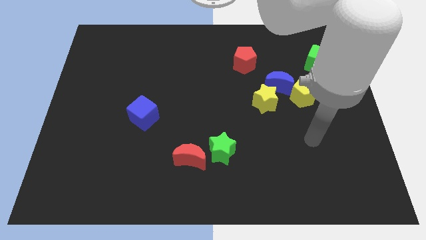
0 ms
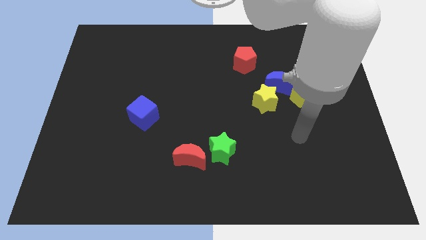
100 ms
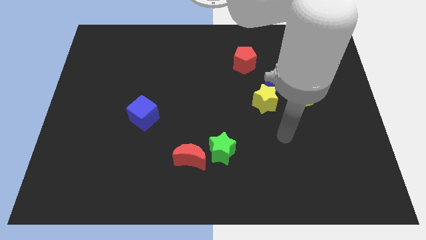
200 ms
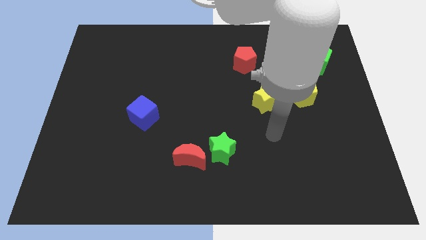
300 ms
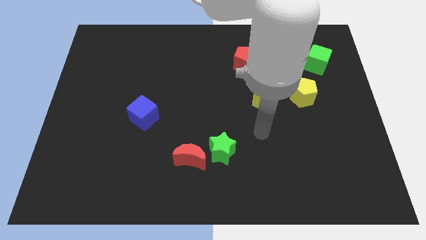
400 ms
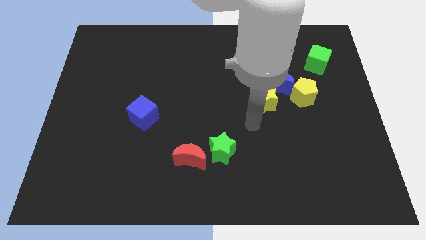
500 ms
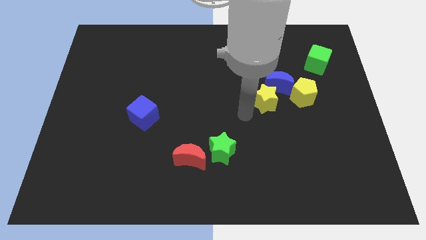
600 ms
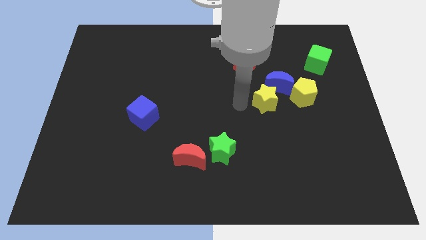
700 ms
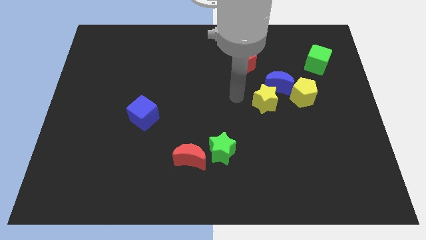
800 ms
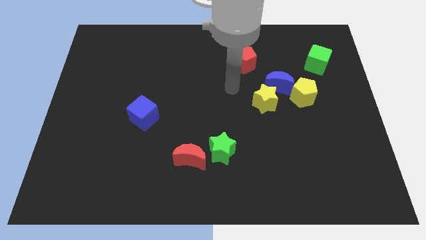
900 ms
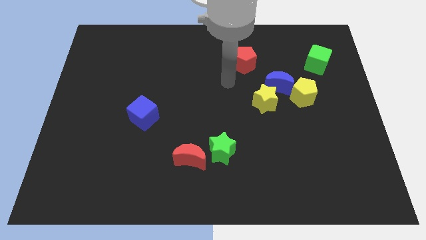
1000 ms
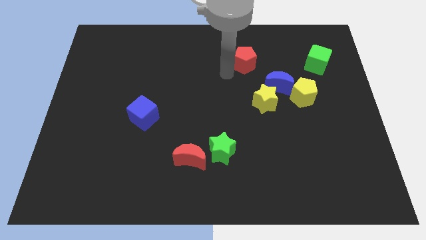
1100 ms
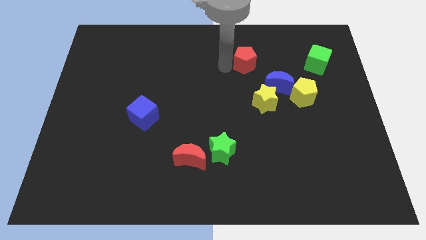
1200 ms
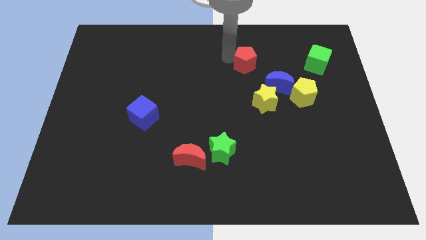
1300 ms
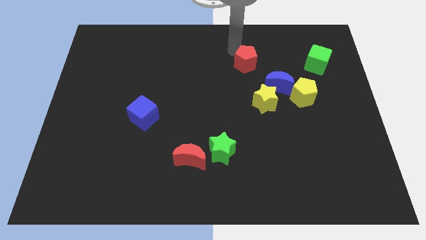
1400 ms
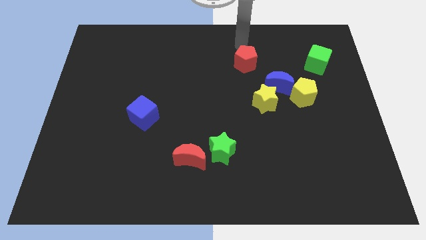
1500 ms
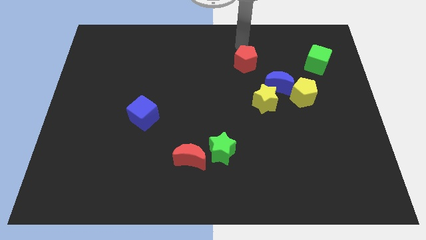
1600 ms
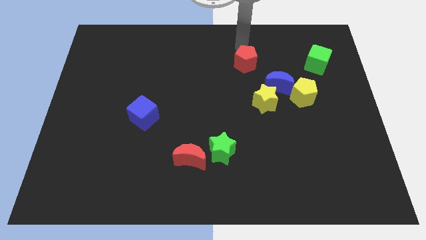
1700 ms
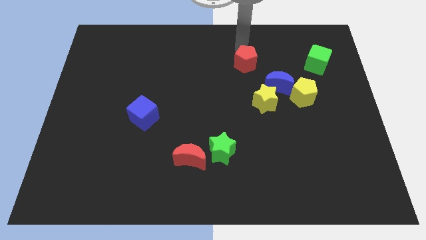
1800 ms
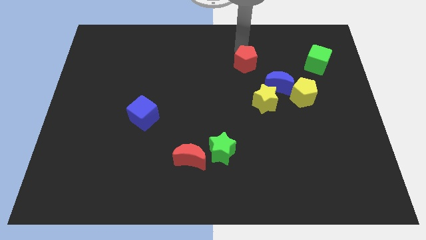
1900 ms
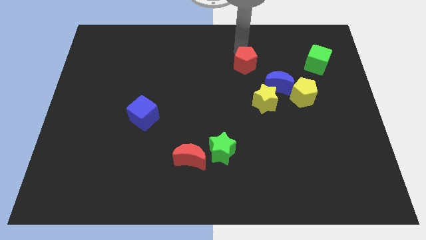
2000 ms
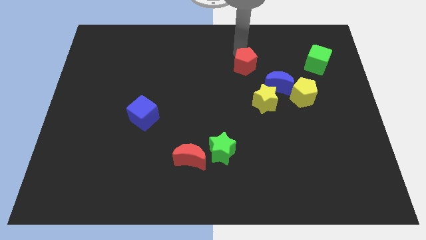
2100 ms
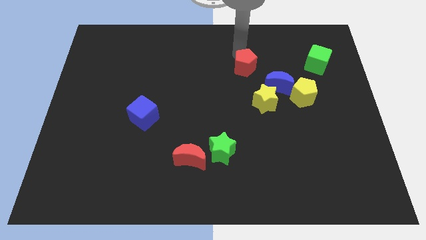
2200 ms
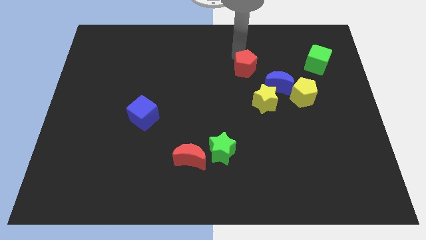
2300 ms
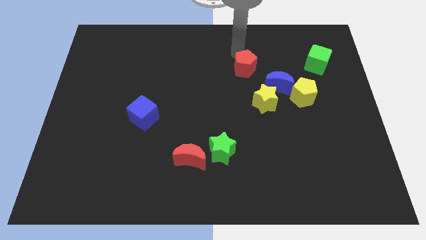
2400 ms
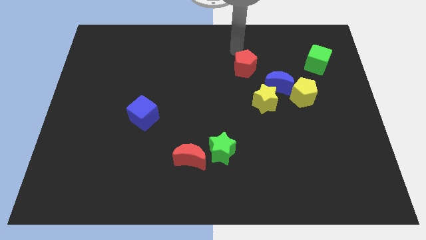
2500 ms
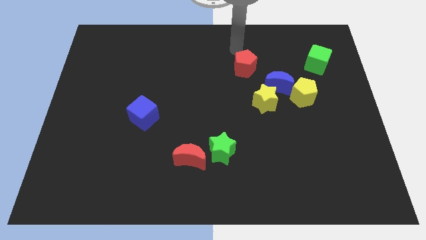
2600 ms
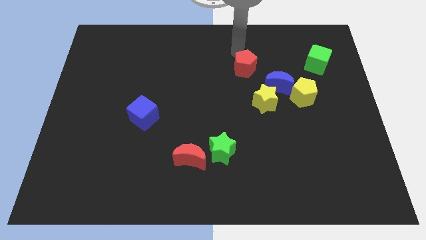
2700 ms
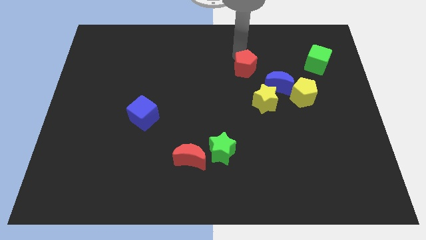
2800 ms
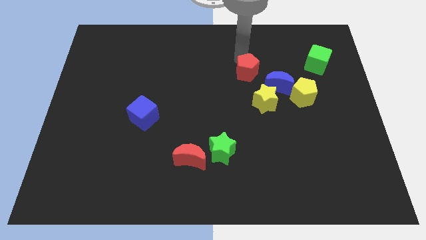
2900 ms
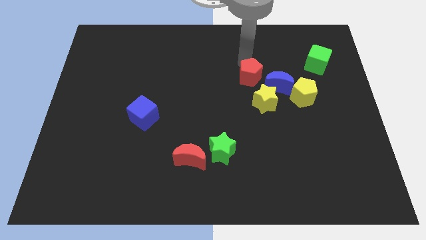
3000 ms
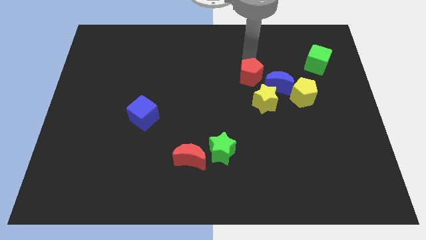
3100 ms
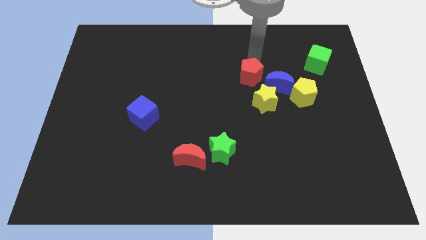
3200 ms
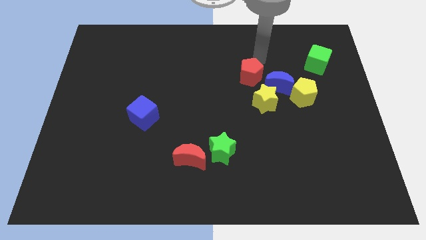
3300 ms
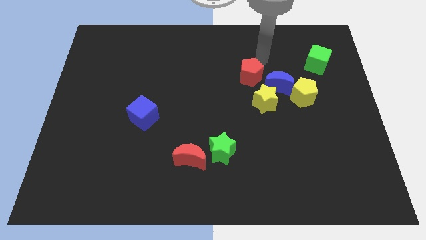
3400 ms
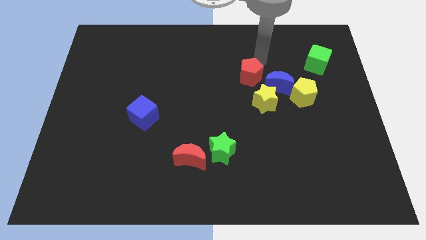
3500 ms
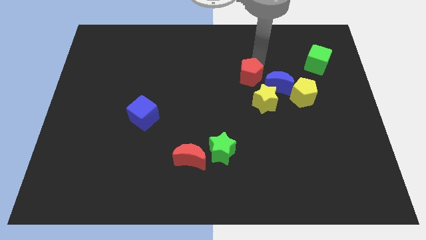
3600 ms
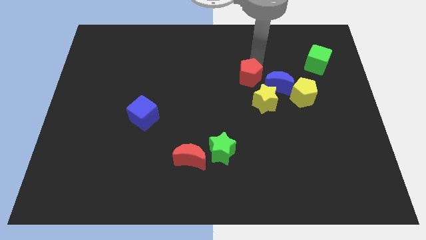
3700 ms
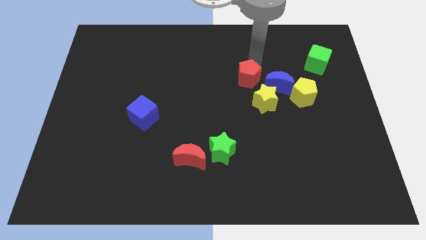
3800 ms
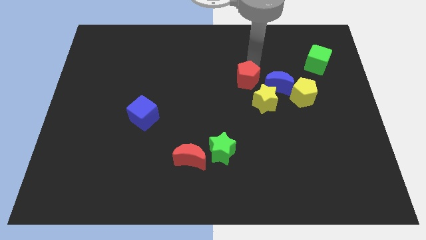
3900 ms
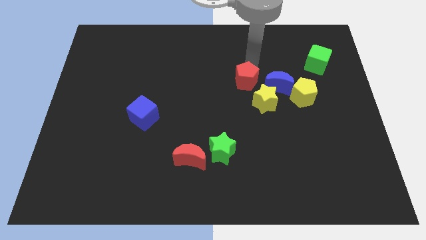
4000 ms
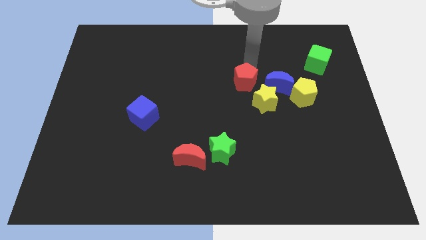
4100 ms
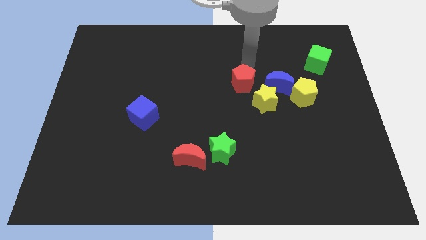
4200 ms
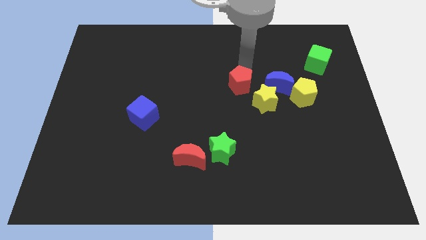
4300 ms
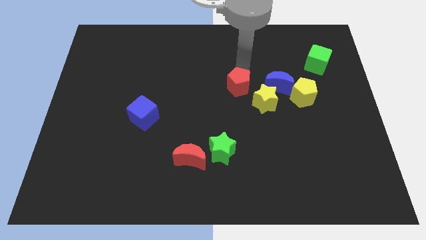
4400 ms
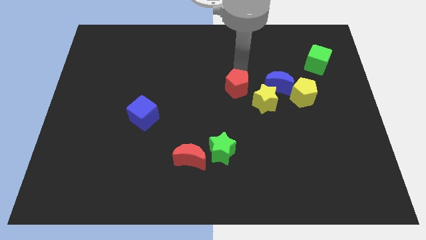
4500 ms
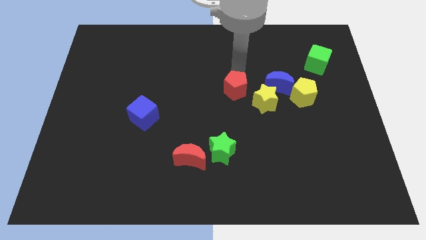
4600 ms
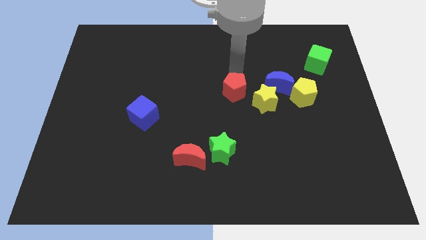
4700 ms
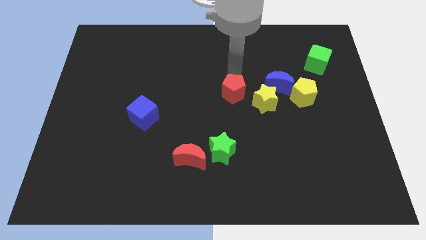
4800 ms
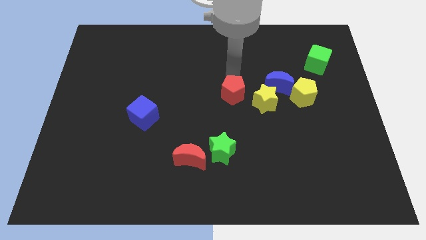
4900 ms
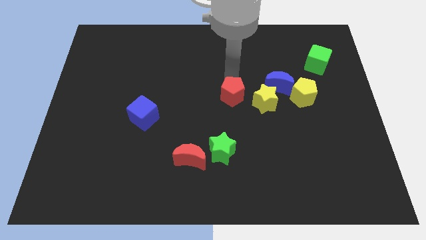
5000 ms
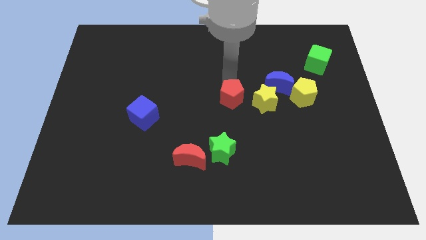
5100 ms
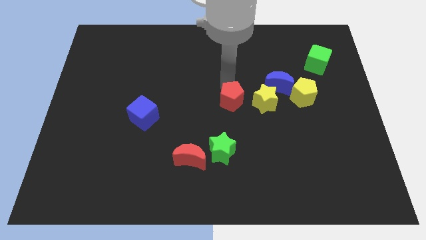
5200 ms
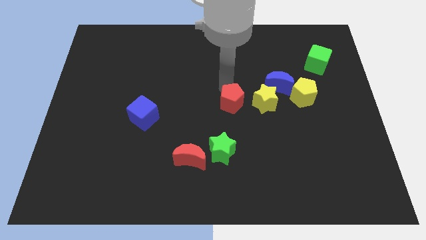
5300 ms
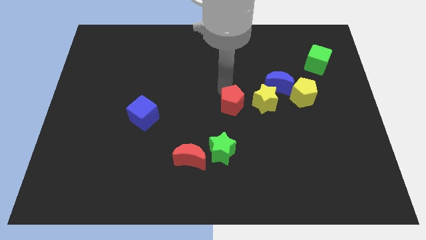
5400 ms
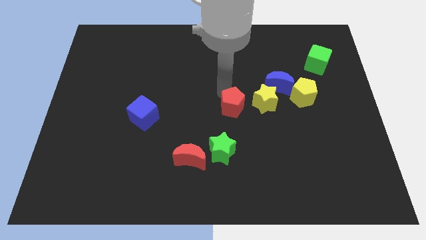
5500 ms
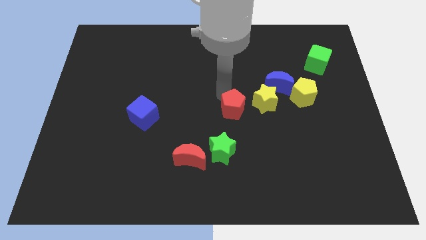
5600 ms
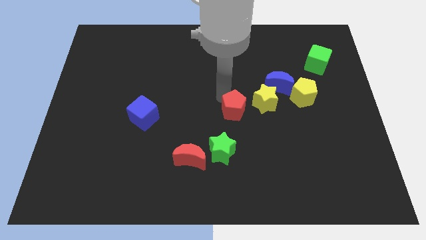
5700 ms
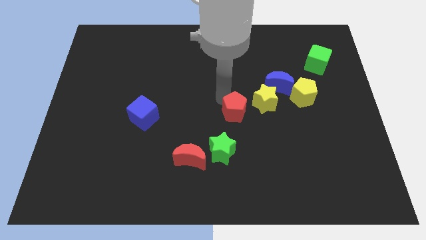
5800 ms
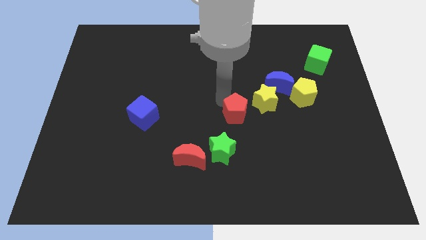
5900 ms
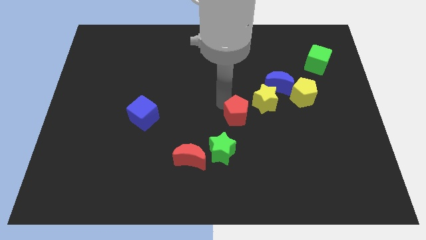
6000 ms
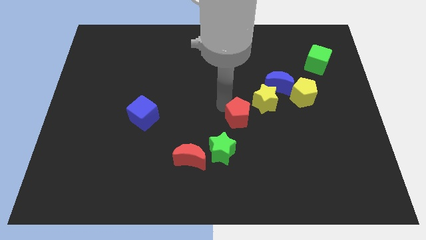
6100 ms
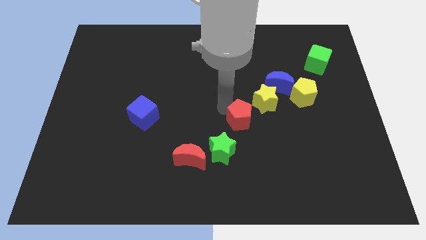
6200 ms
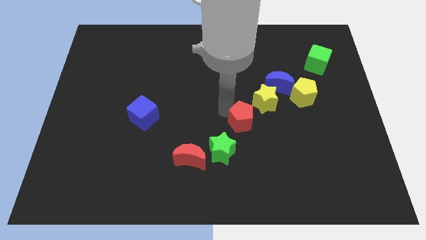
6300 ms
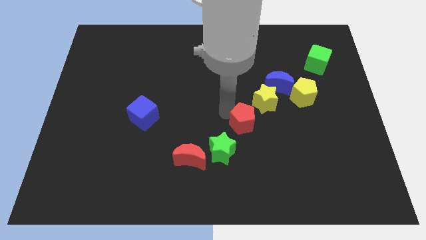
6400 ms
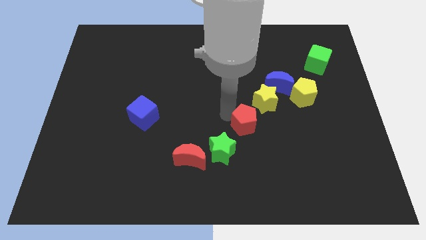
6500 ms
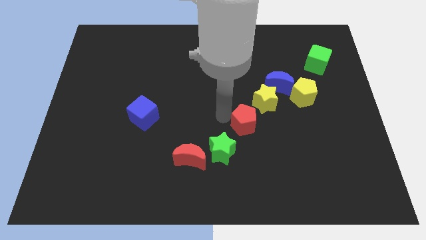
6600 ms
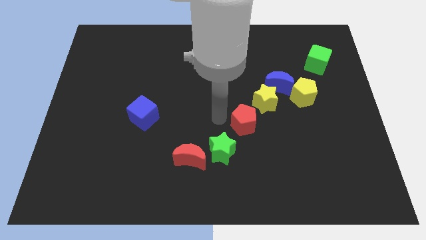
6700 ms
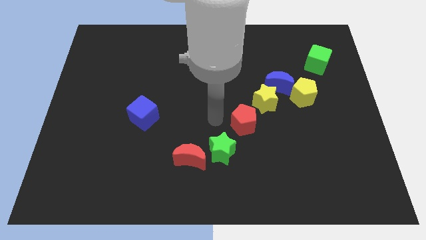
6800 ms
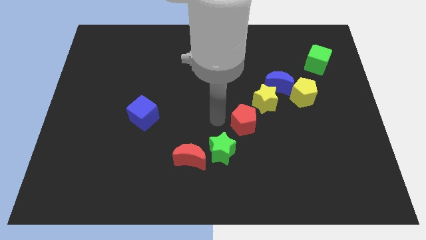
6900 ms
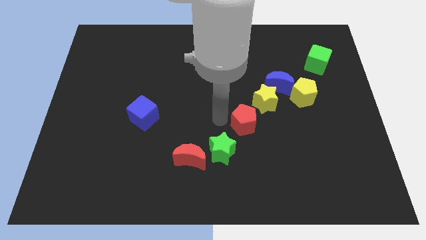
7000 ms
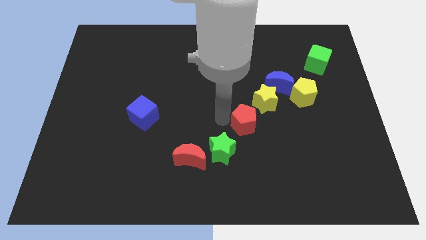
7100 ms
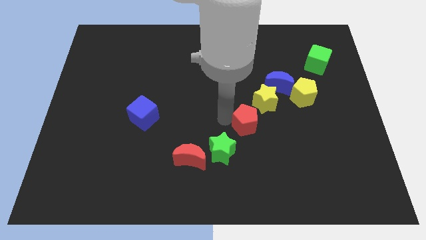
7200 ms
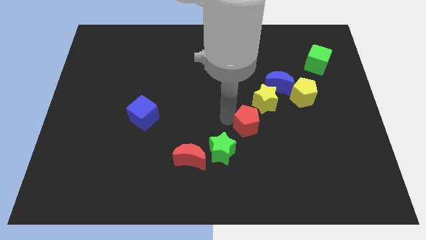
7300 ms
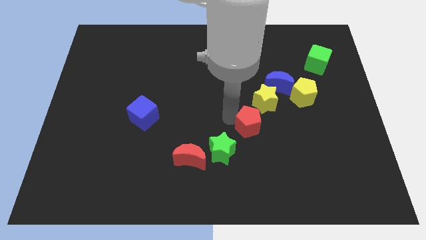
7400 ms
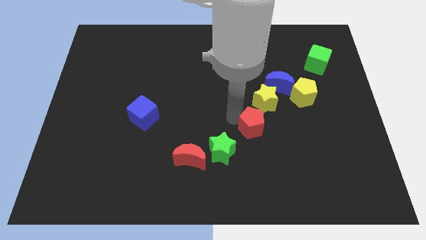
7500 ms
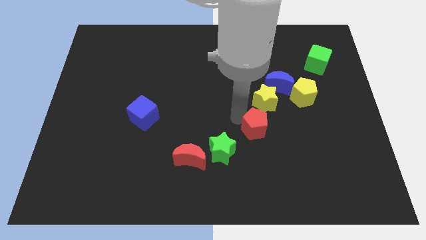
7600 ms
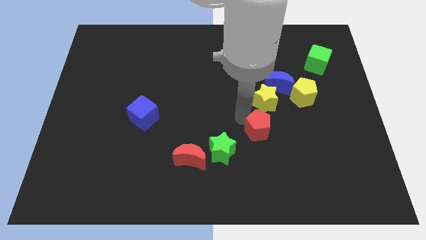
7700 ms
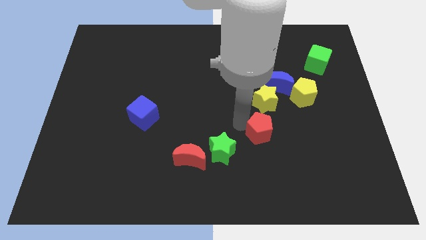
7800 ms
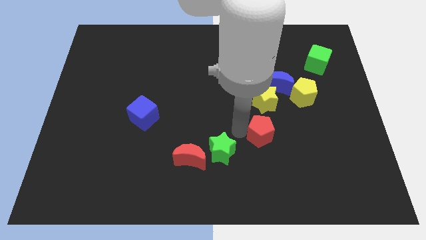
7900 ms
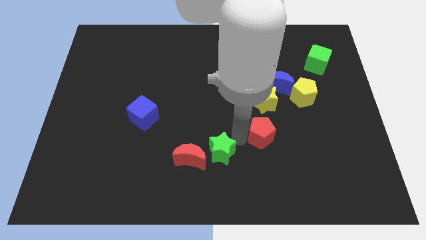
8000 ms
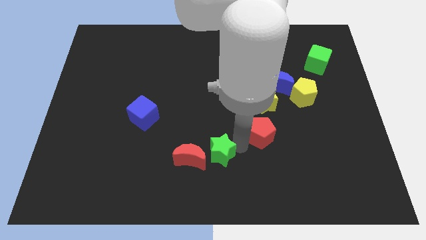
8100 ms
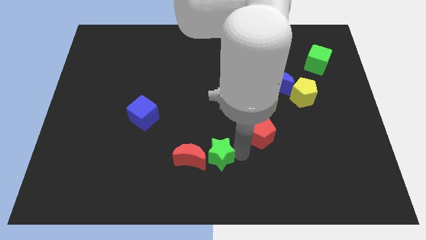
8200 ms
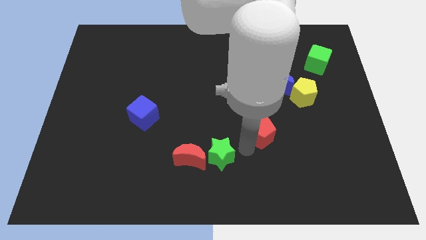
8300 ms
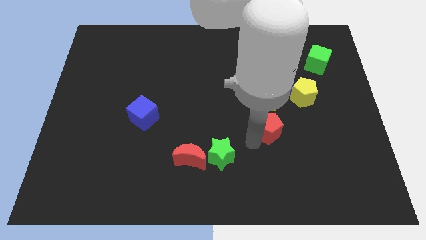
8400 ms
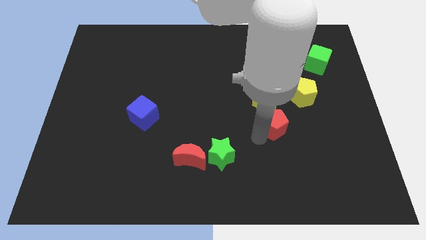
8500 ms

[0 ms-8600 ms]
put the red pentagon diagonally down and to the left of the yellow pentagon
